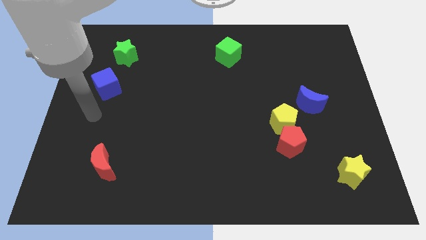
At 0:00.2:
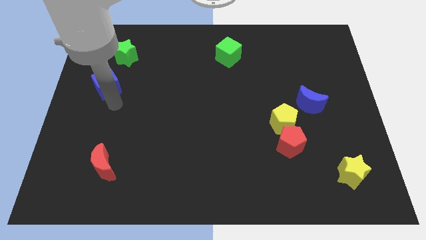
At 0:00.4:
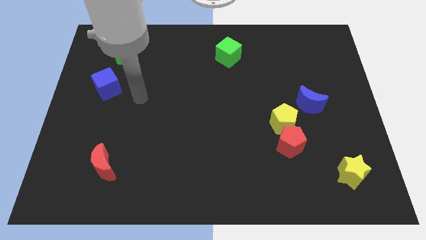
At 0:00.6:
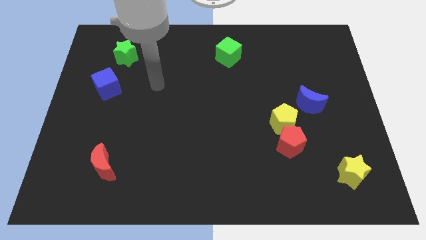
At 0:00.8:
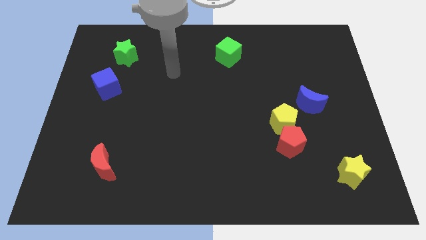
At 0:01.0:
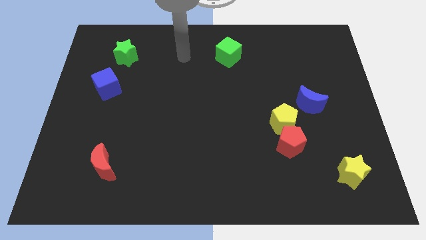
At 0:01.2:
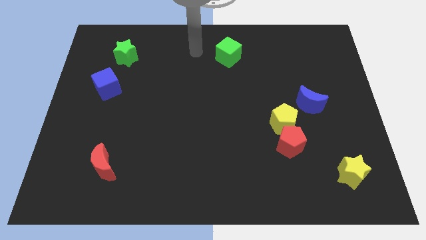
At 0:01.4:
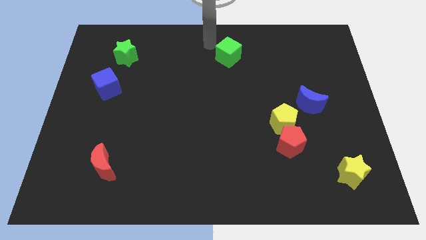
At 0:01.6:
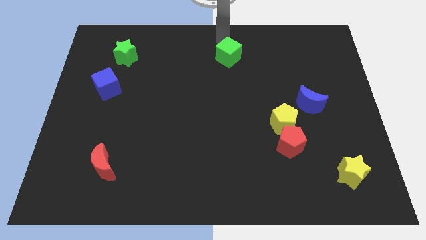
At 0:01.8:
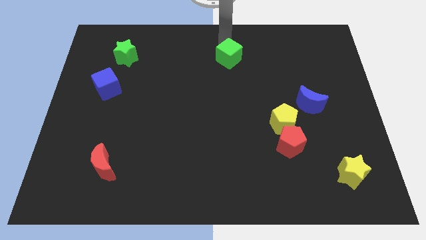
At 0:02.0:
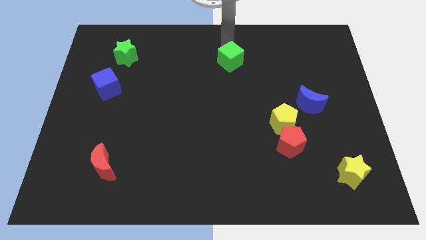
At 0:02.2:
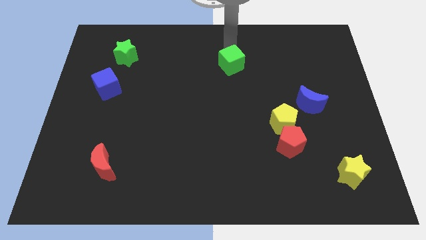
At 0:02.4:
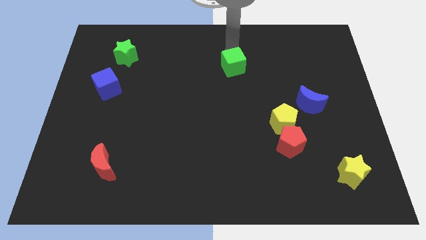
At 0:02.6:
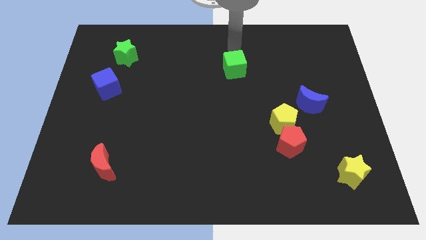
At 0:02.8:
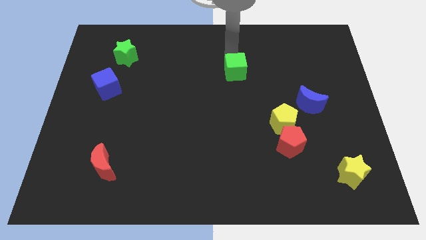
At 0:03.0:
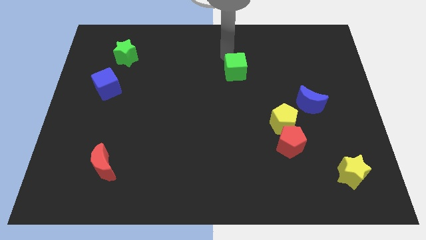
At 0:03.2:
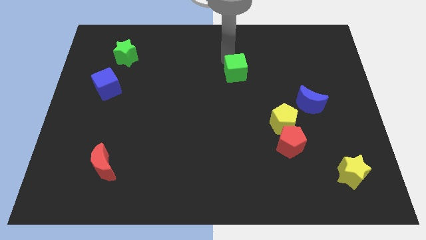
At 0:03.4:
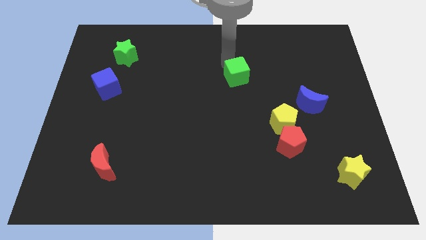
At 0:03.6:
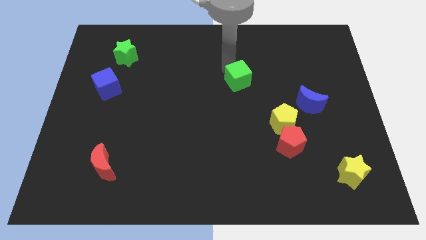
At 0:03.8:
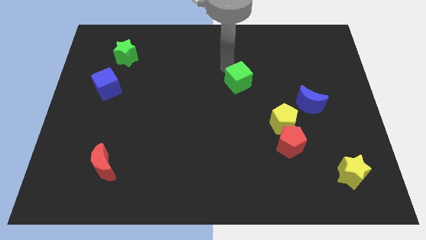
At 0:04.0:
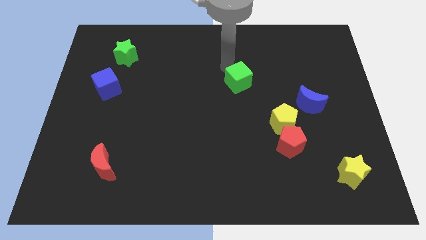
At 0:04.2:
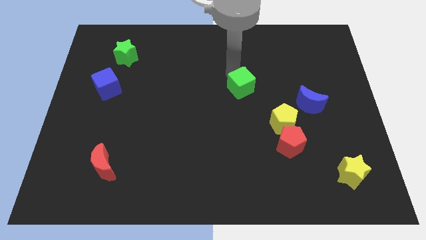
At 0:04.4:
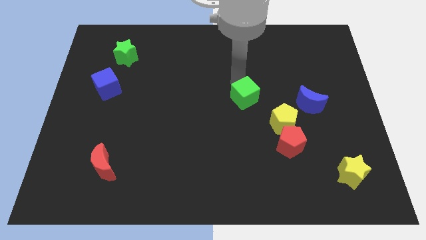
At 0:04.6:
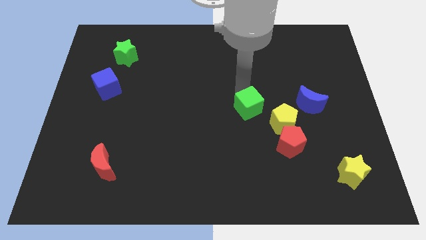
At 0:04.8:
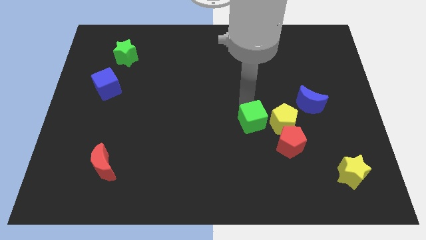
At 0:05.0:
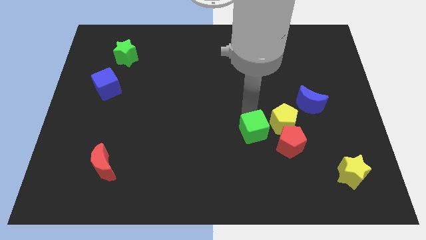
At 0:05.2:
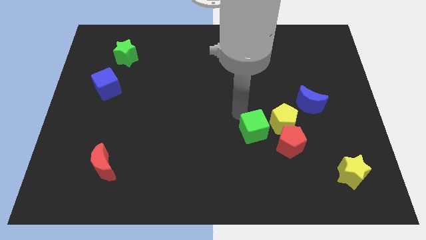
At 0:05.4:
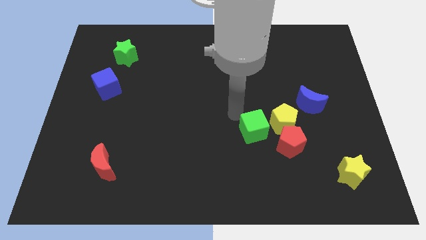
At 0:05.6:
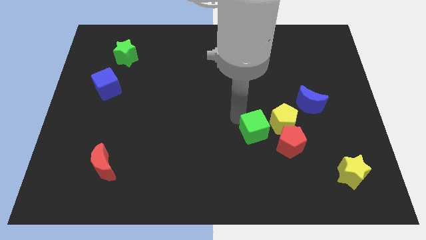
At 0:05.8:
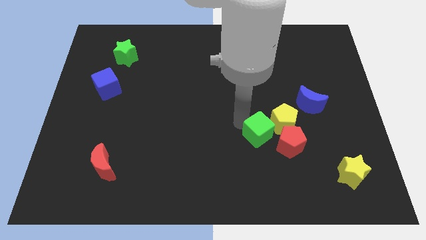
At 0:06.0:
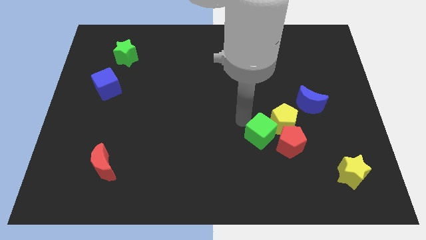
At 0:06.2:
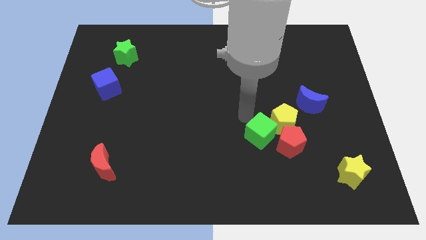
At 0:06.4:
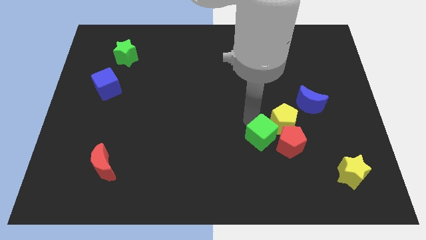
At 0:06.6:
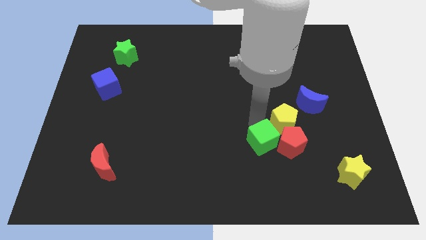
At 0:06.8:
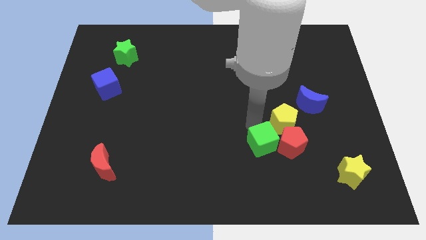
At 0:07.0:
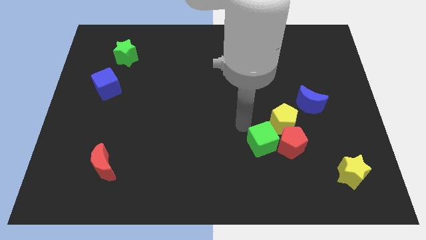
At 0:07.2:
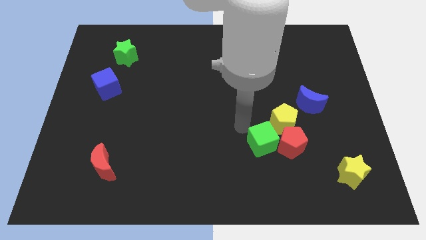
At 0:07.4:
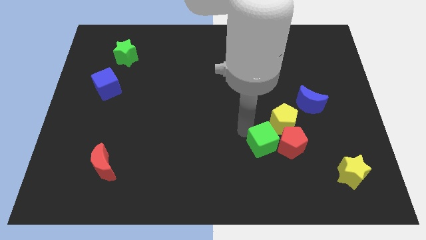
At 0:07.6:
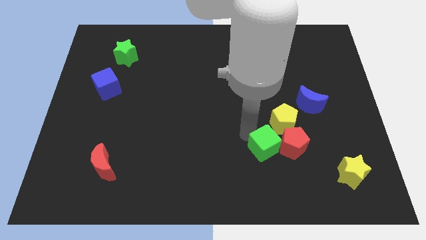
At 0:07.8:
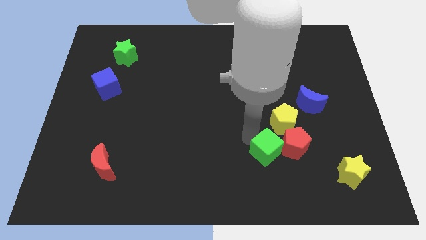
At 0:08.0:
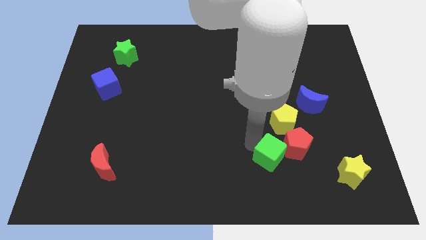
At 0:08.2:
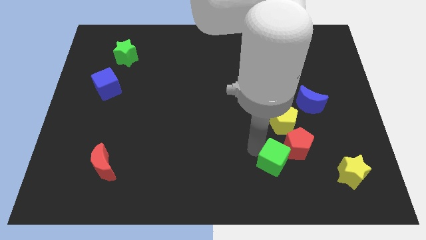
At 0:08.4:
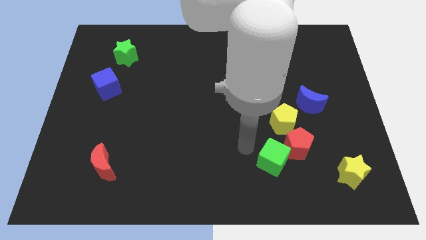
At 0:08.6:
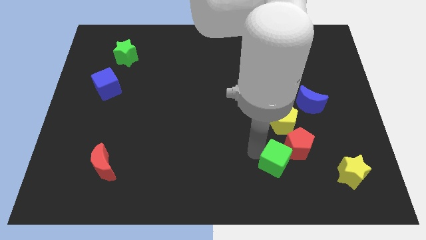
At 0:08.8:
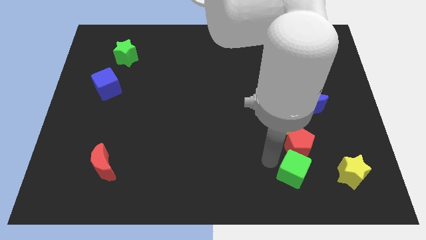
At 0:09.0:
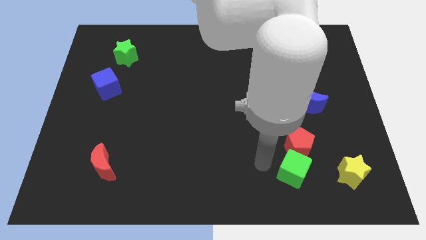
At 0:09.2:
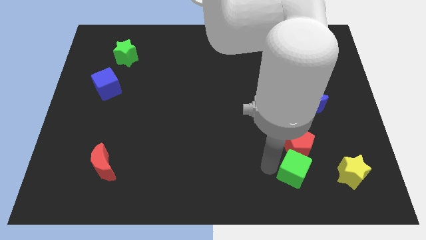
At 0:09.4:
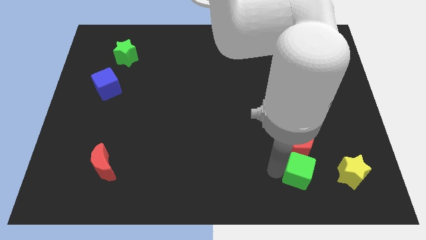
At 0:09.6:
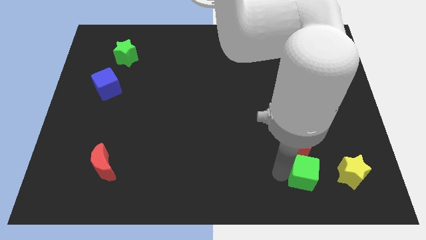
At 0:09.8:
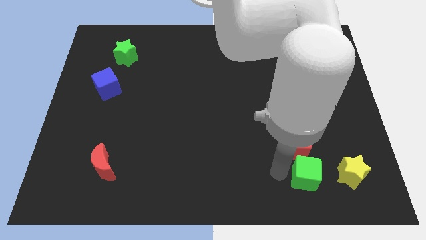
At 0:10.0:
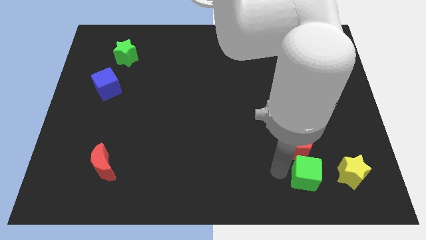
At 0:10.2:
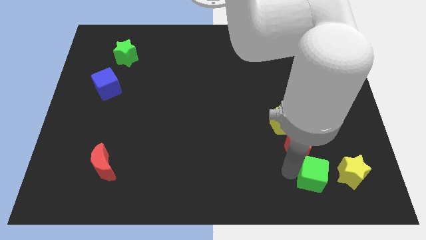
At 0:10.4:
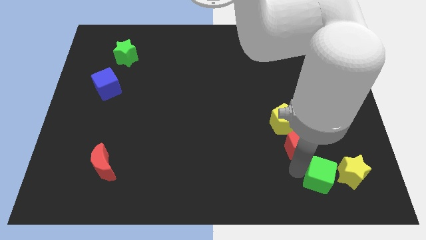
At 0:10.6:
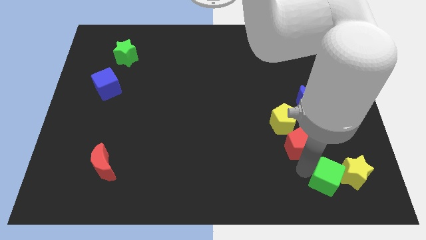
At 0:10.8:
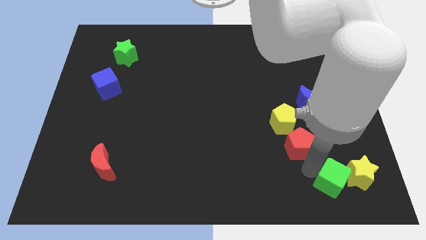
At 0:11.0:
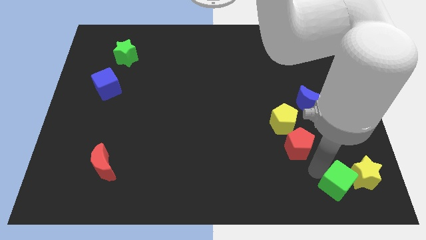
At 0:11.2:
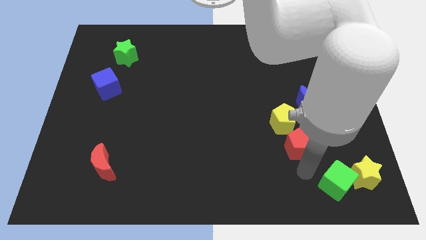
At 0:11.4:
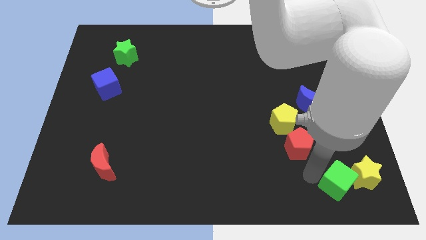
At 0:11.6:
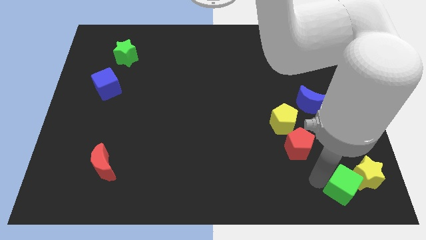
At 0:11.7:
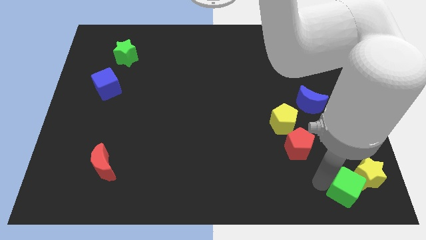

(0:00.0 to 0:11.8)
put the green cube to the bottom right corner

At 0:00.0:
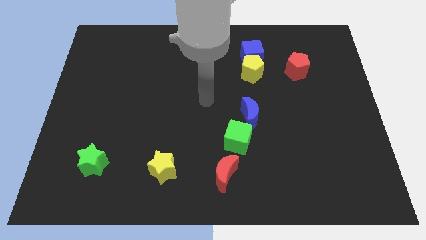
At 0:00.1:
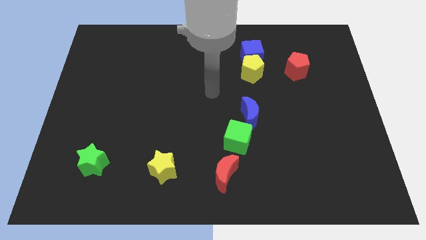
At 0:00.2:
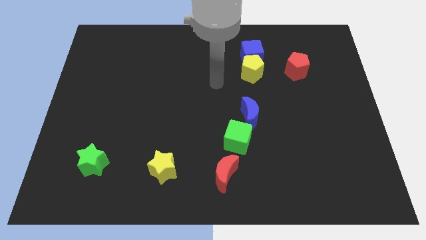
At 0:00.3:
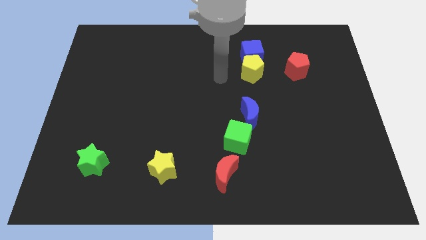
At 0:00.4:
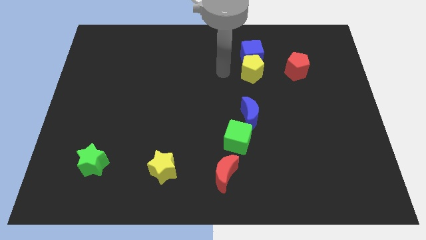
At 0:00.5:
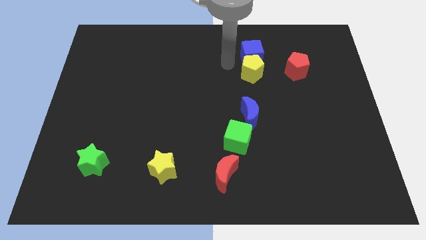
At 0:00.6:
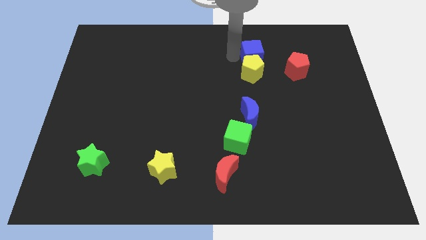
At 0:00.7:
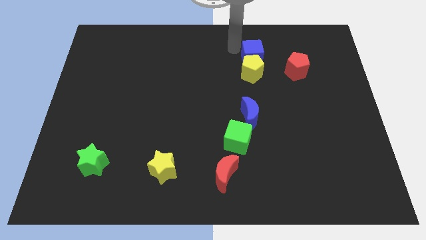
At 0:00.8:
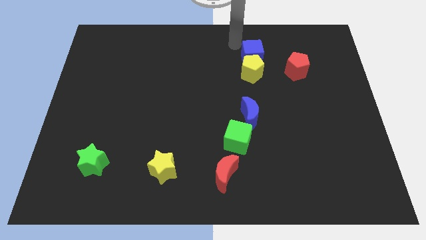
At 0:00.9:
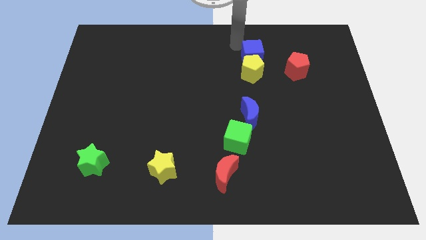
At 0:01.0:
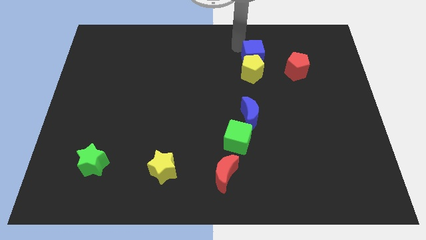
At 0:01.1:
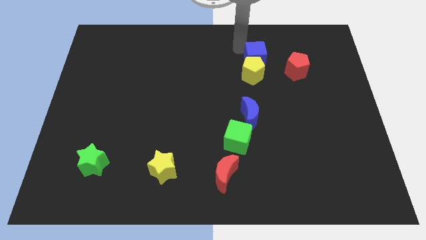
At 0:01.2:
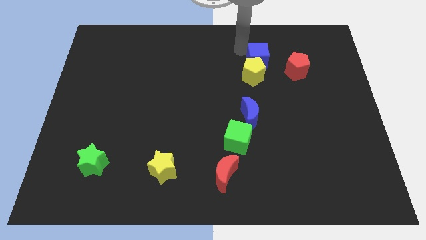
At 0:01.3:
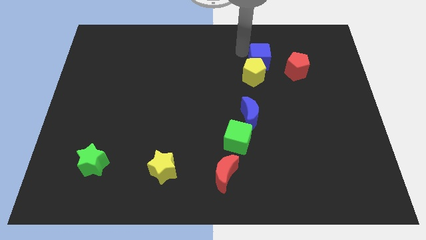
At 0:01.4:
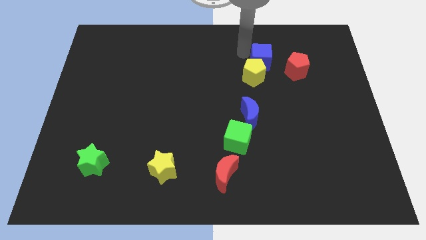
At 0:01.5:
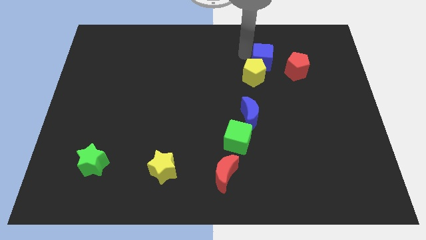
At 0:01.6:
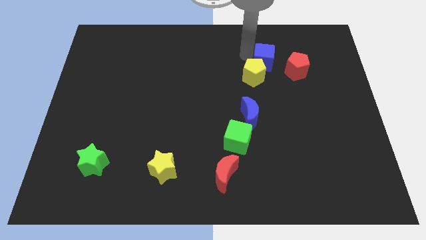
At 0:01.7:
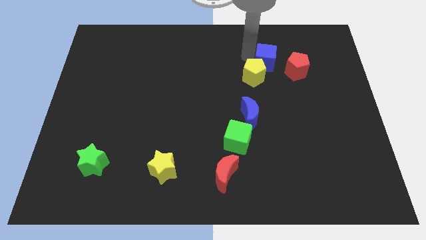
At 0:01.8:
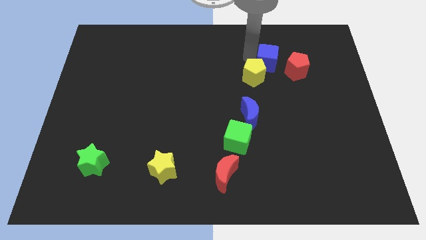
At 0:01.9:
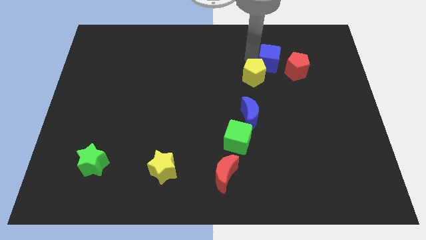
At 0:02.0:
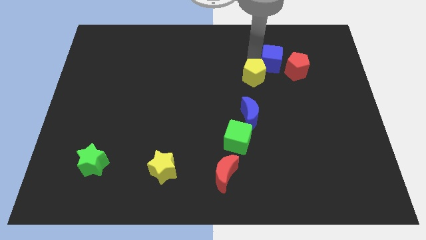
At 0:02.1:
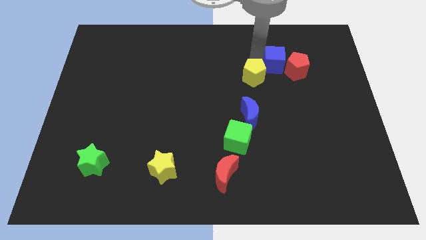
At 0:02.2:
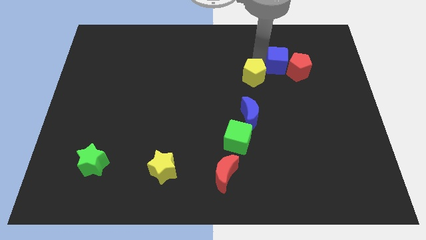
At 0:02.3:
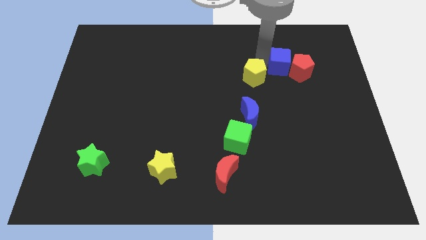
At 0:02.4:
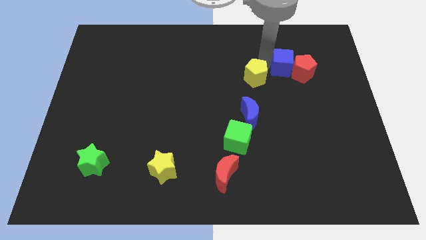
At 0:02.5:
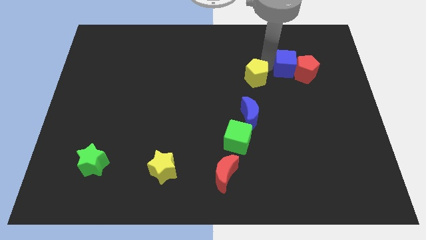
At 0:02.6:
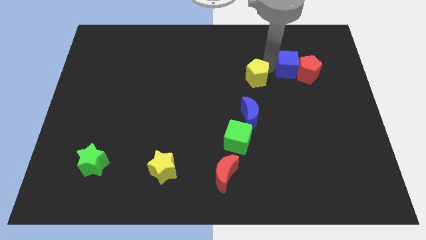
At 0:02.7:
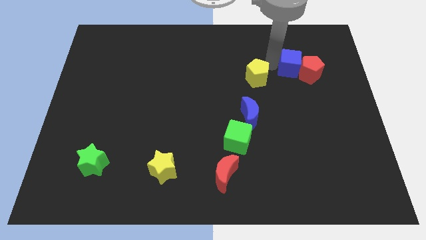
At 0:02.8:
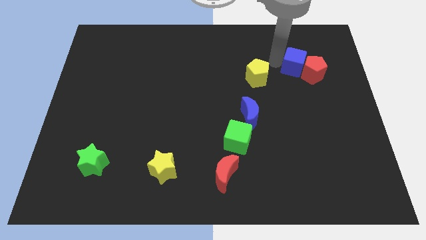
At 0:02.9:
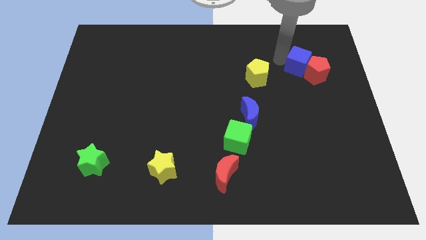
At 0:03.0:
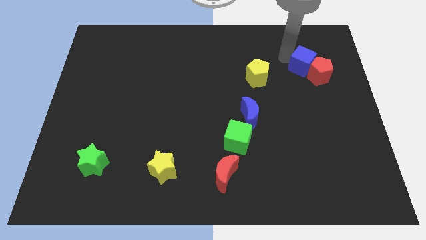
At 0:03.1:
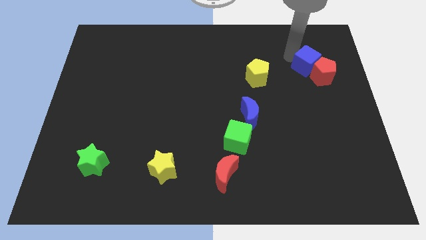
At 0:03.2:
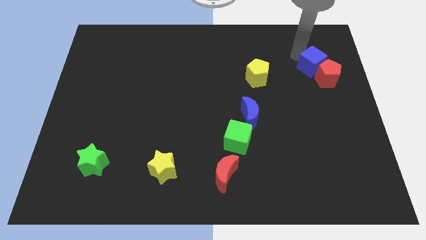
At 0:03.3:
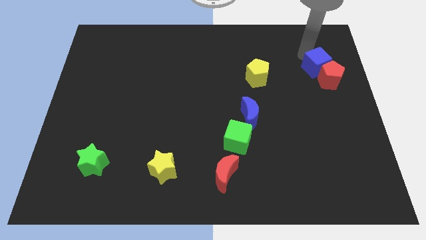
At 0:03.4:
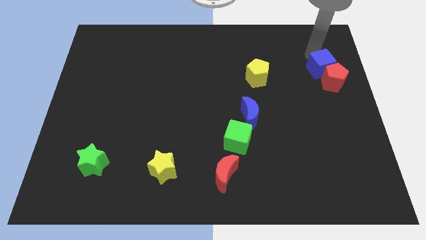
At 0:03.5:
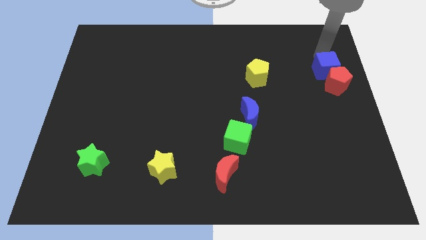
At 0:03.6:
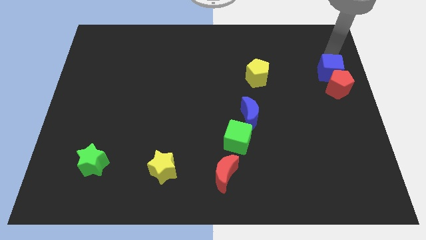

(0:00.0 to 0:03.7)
slide the blue cube to the right side
